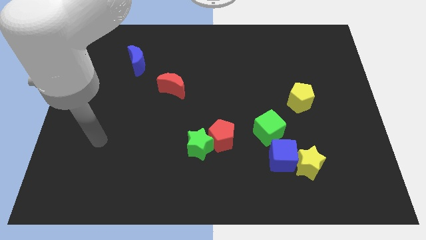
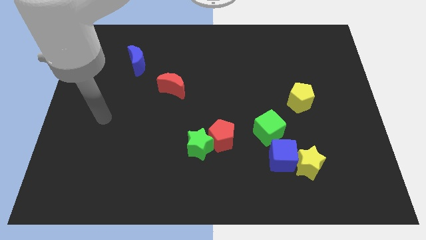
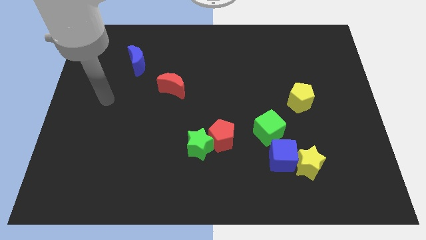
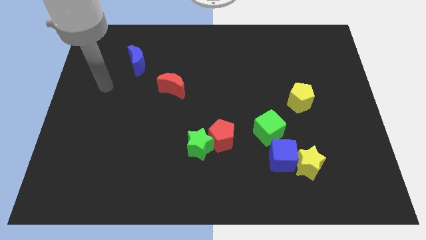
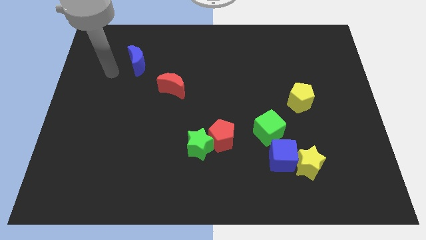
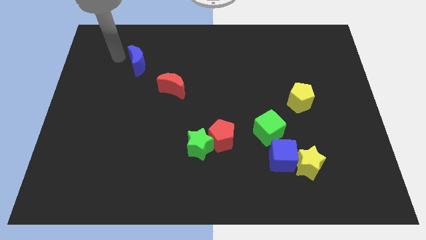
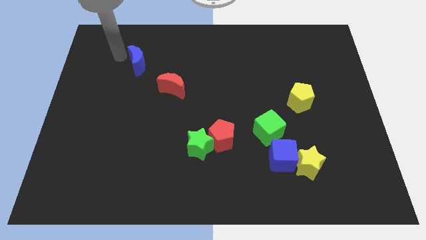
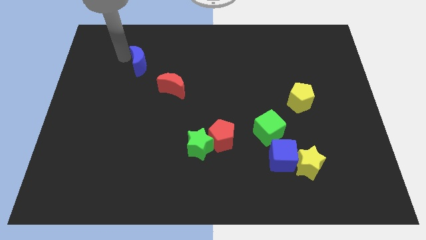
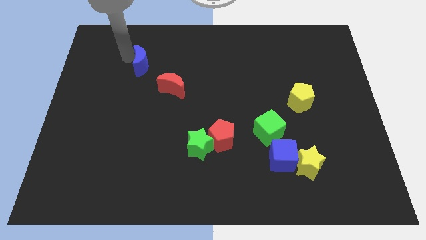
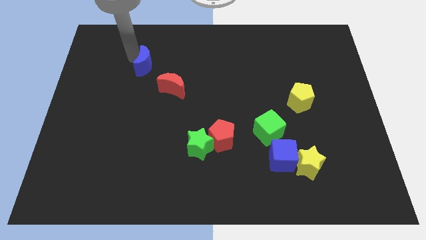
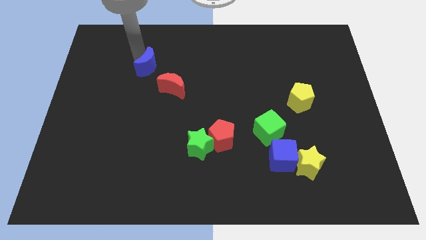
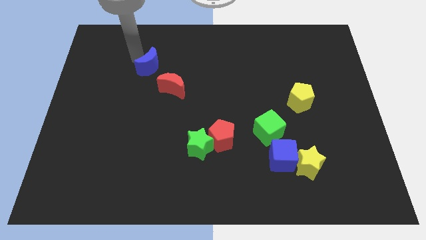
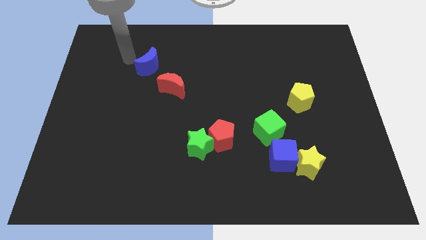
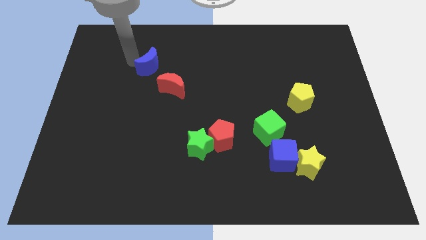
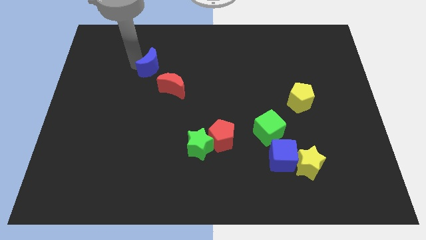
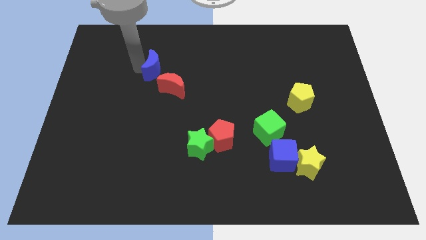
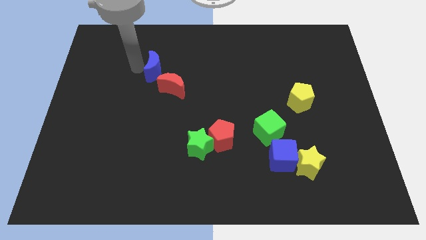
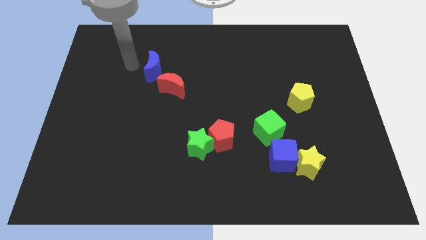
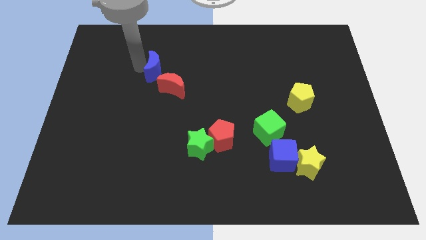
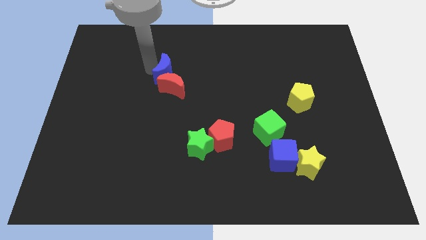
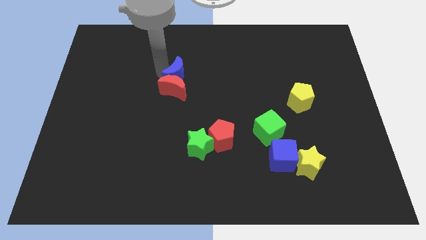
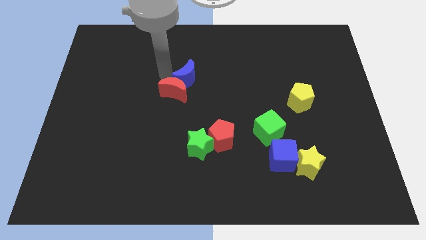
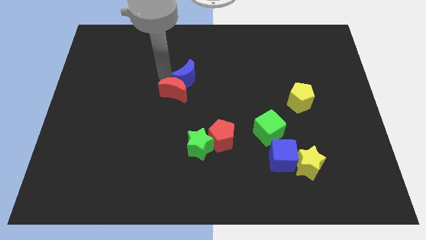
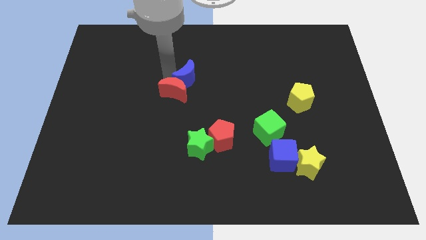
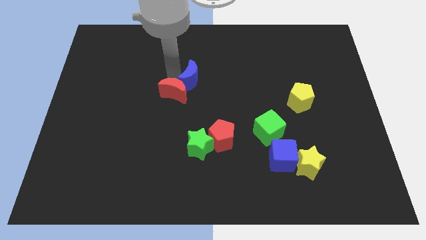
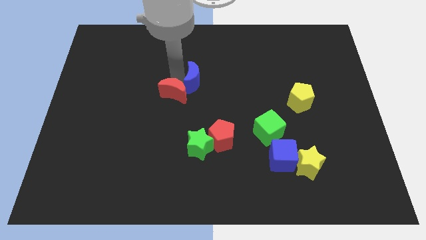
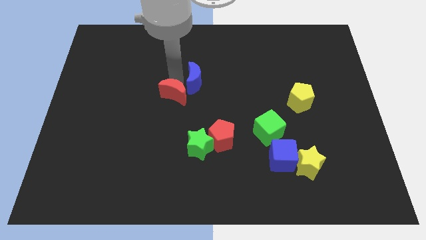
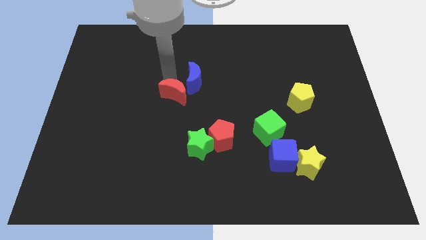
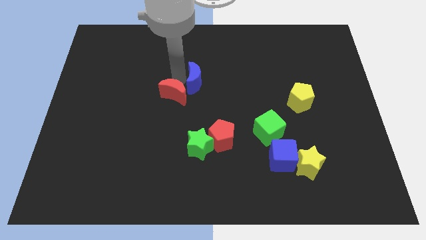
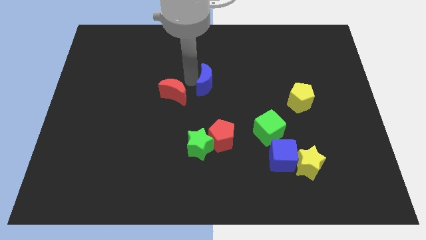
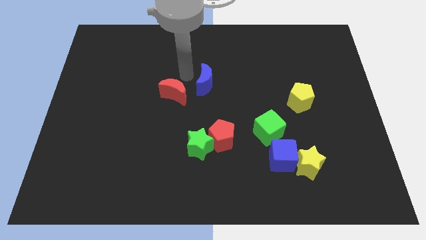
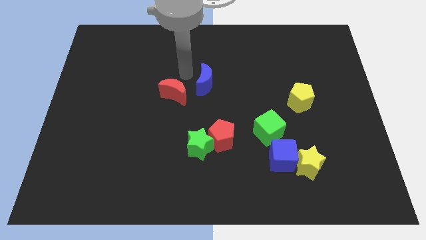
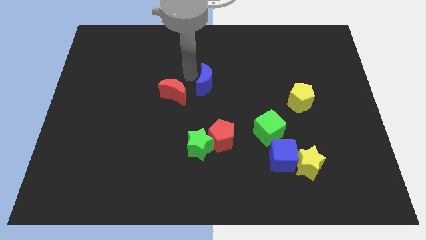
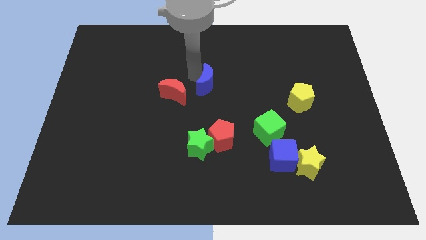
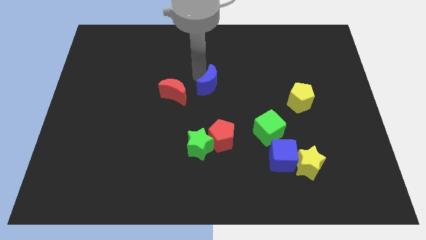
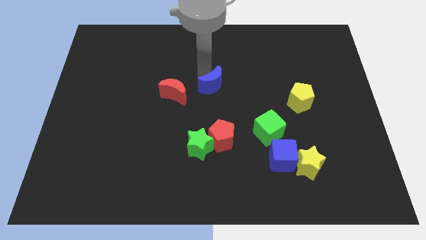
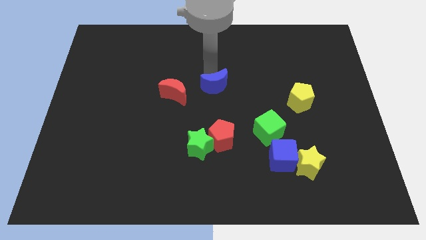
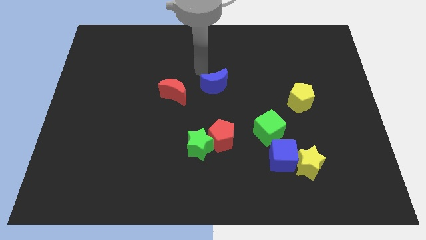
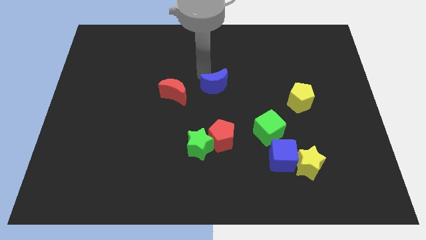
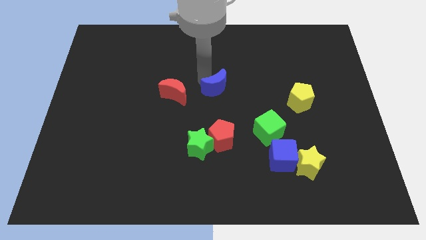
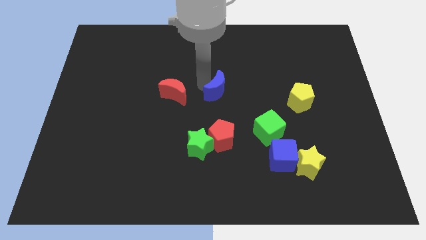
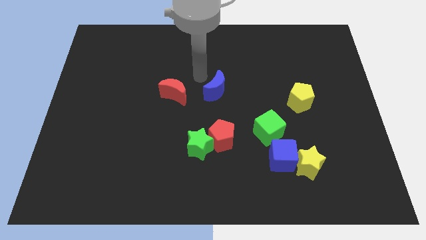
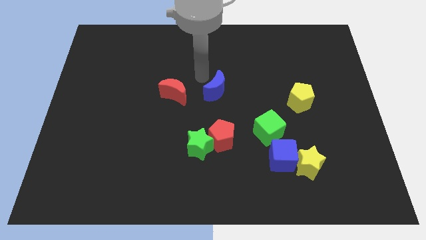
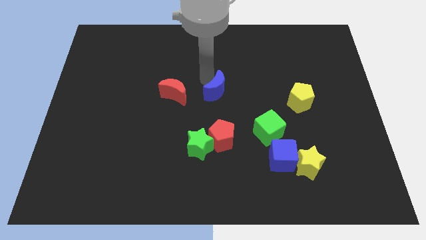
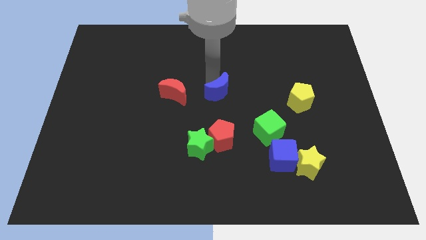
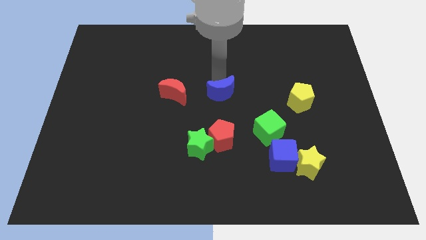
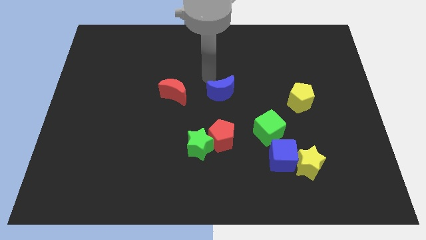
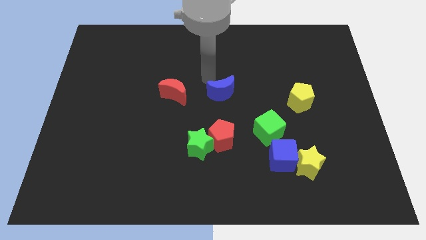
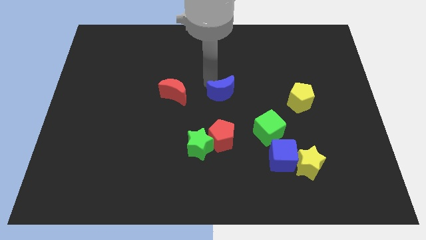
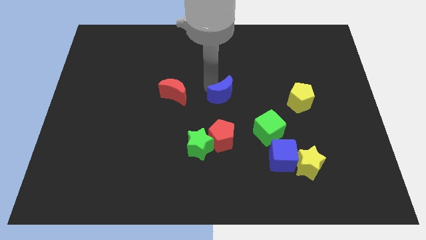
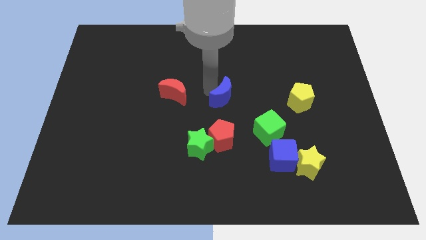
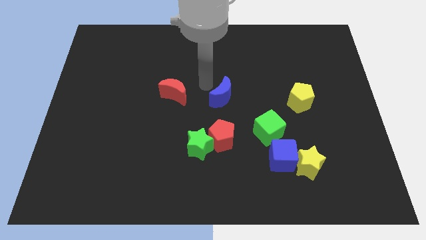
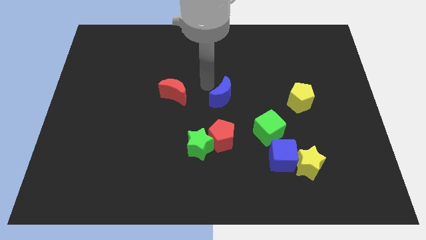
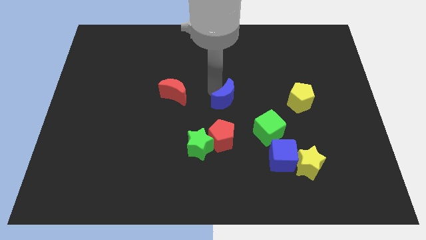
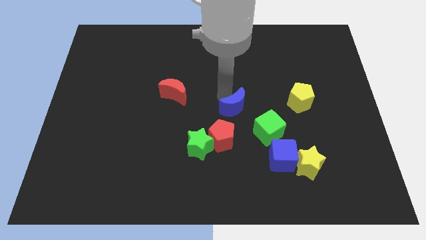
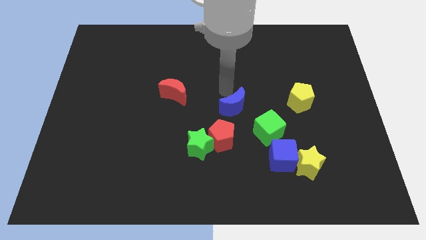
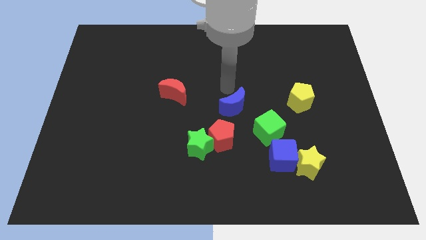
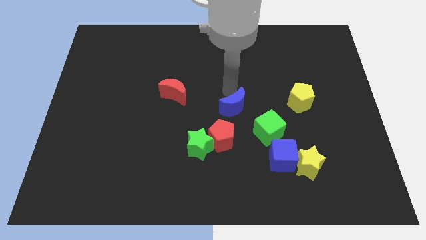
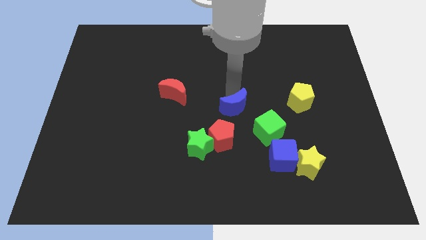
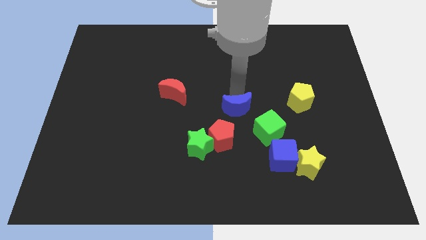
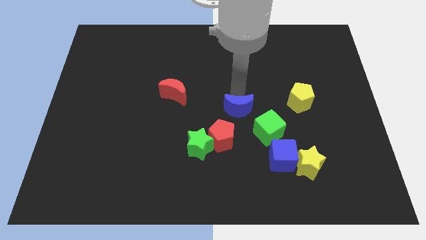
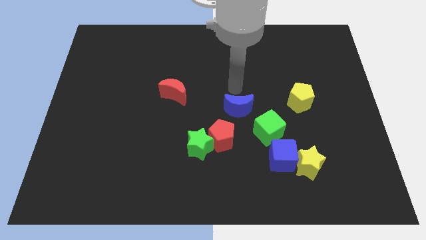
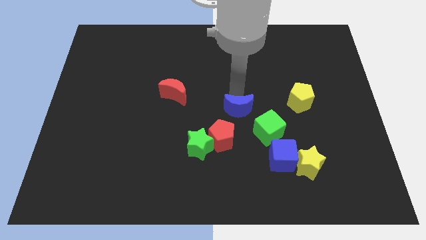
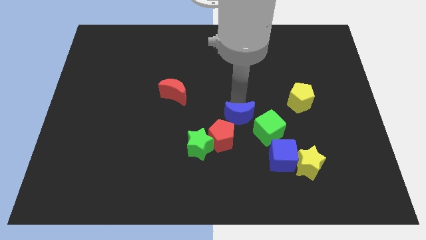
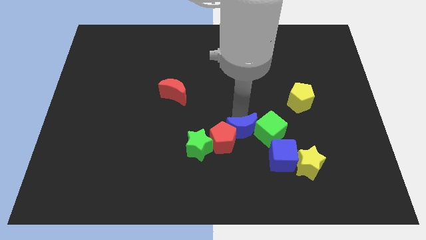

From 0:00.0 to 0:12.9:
push the blue moon diagonally down and to the left of the green cube

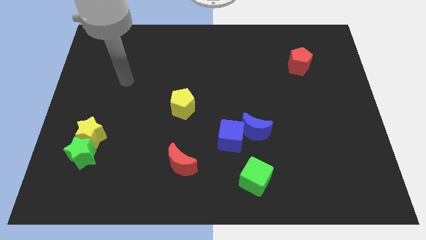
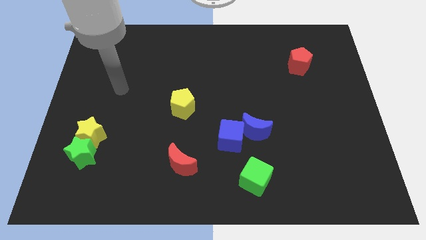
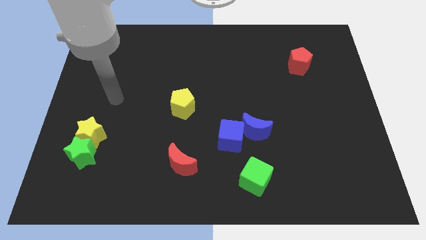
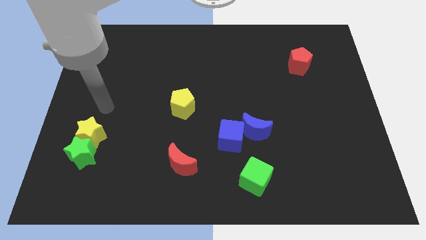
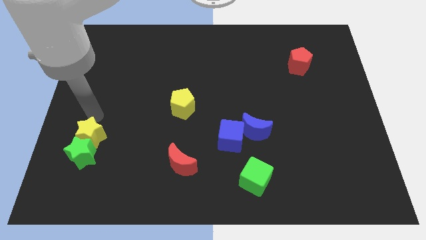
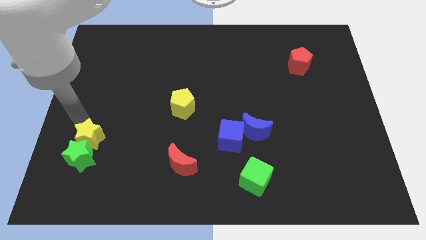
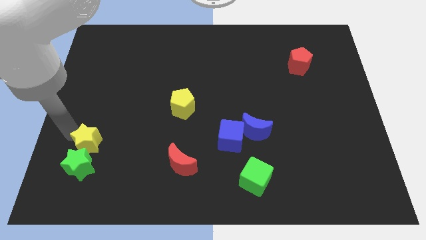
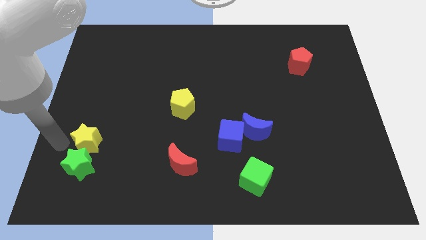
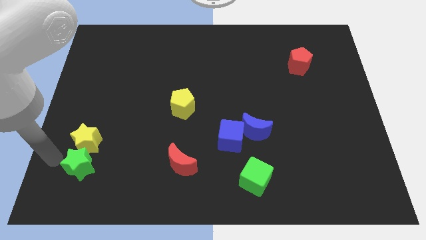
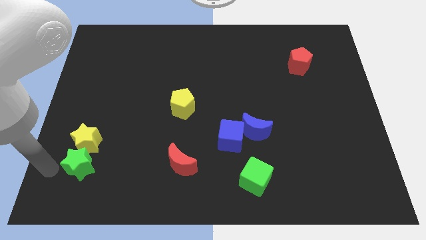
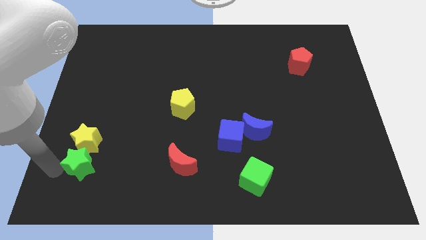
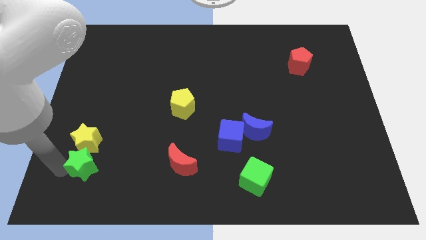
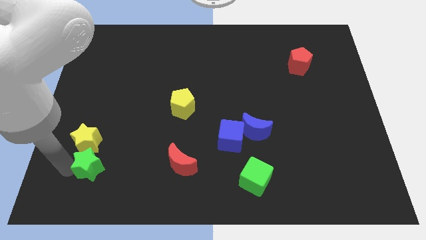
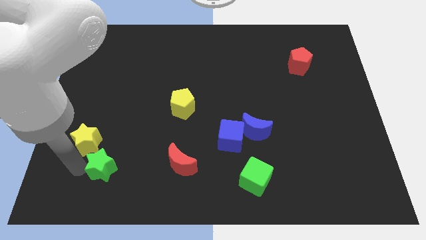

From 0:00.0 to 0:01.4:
move the green star left of the red moon
